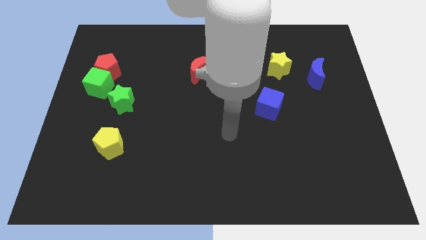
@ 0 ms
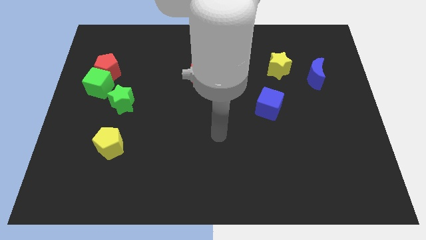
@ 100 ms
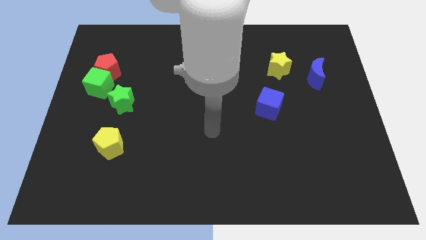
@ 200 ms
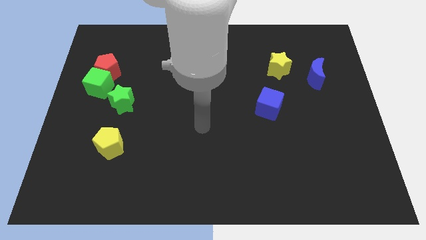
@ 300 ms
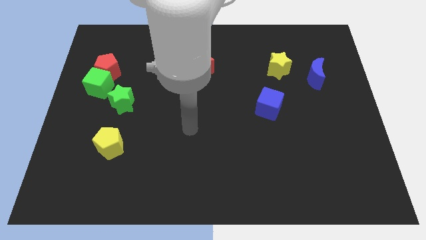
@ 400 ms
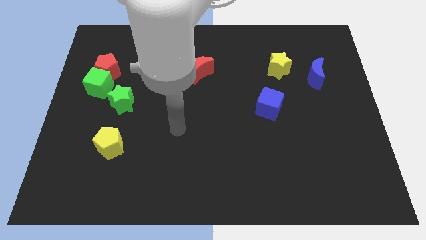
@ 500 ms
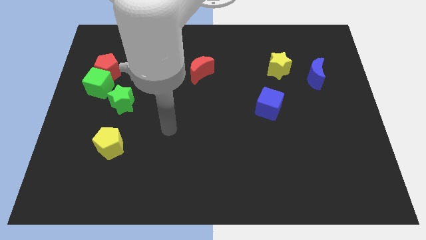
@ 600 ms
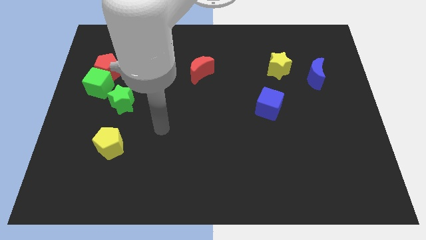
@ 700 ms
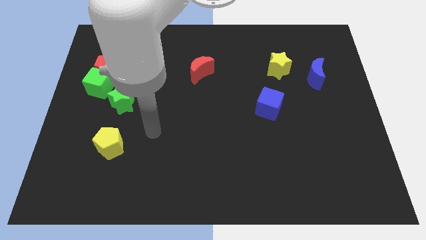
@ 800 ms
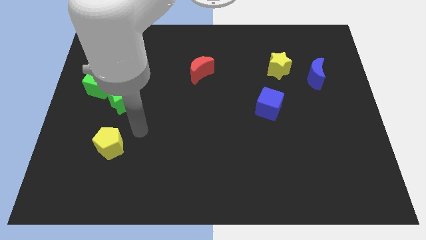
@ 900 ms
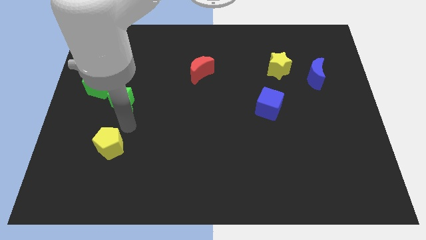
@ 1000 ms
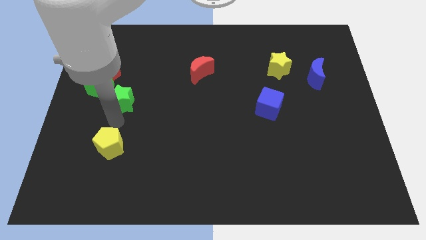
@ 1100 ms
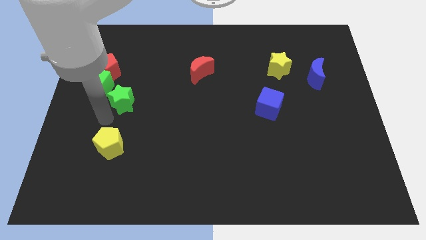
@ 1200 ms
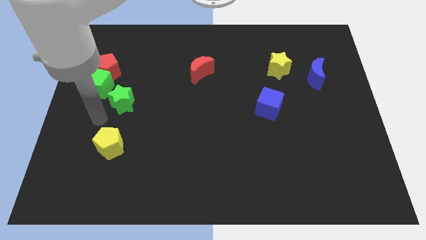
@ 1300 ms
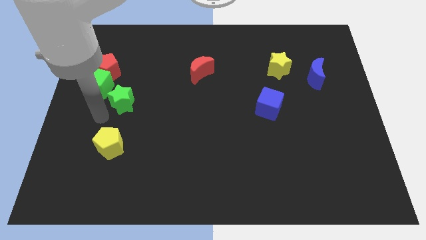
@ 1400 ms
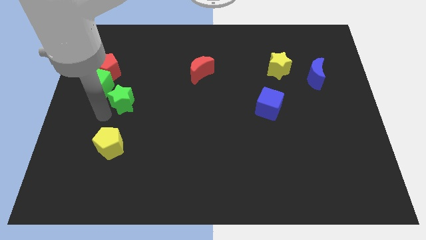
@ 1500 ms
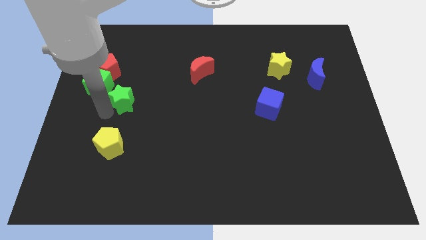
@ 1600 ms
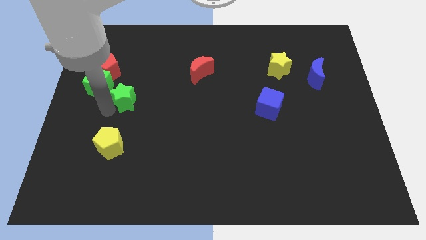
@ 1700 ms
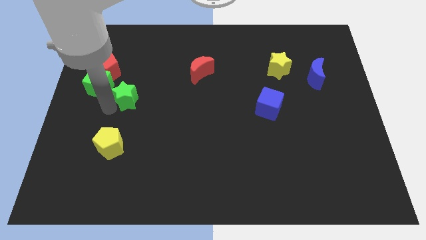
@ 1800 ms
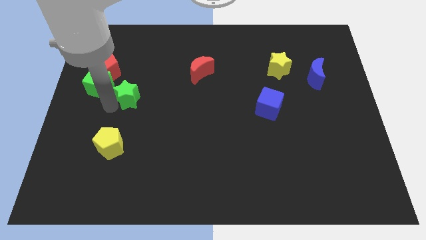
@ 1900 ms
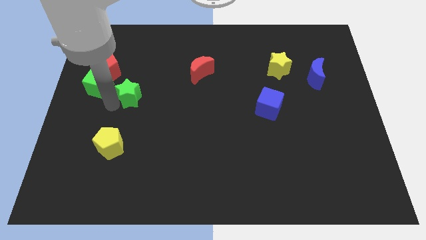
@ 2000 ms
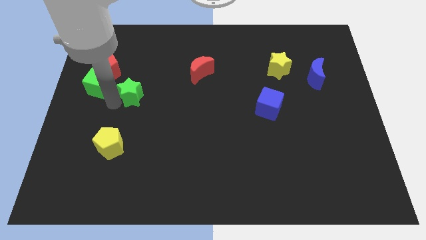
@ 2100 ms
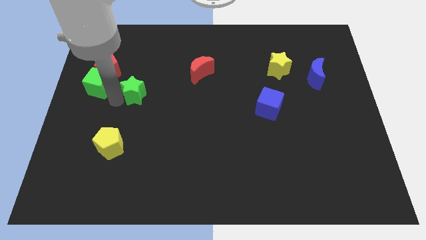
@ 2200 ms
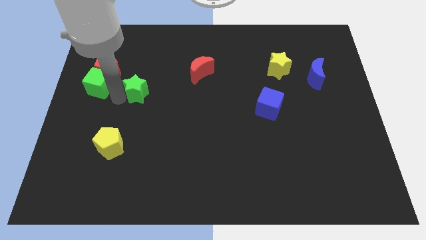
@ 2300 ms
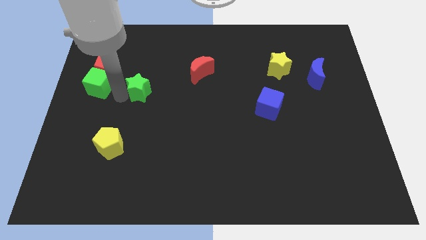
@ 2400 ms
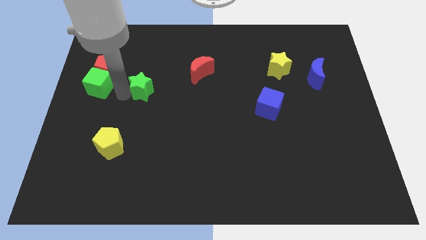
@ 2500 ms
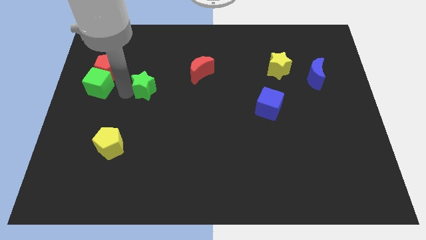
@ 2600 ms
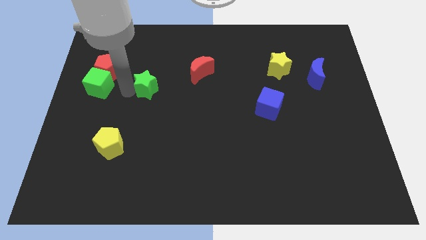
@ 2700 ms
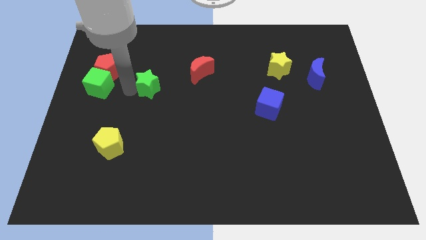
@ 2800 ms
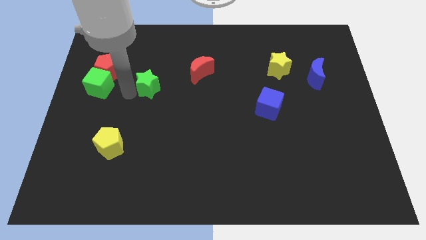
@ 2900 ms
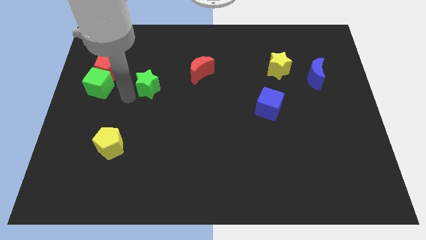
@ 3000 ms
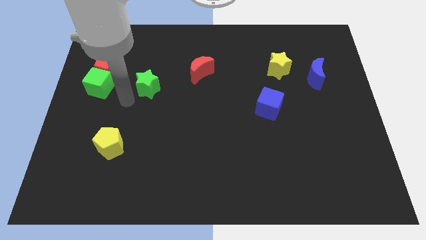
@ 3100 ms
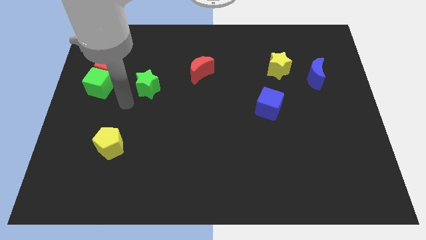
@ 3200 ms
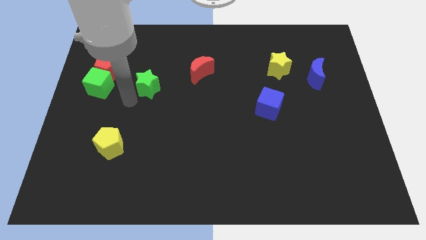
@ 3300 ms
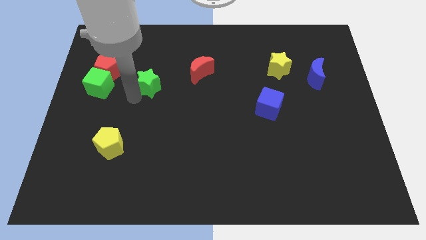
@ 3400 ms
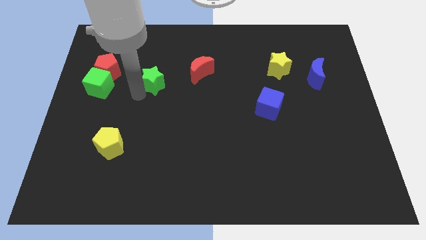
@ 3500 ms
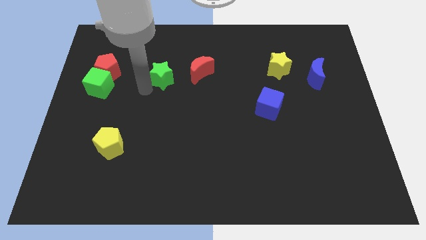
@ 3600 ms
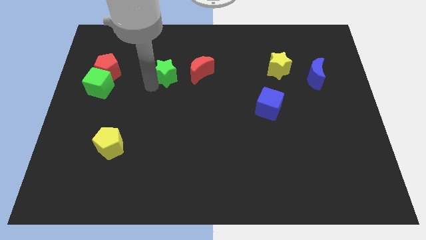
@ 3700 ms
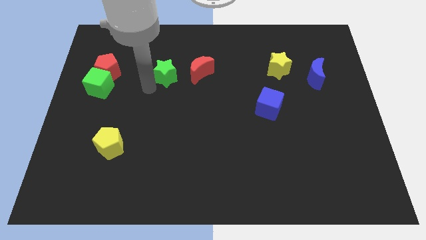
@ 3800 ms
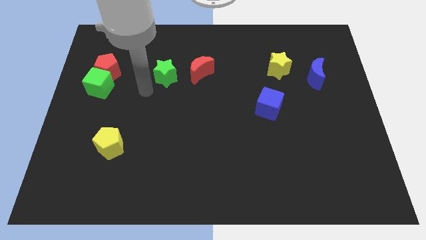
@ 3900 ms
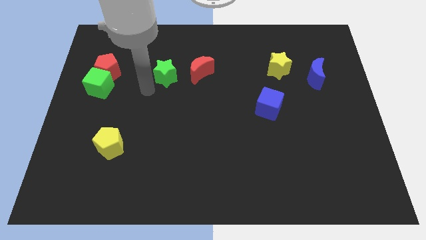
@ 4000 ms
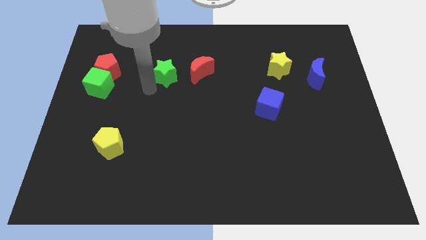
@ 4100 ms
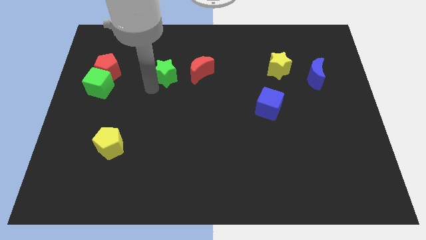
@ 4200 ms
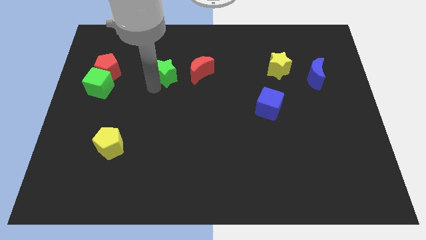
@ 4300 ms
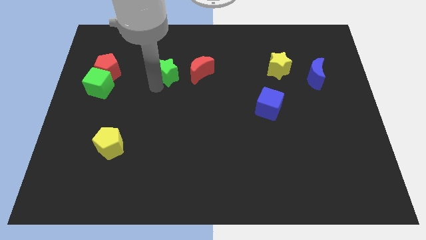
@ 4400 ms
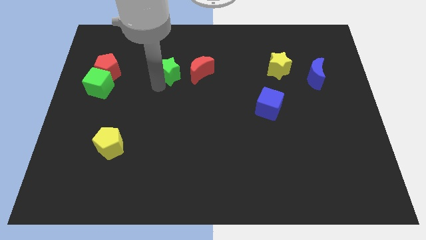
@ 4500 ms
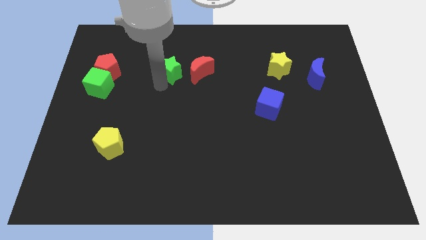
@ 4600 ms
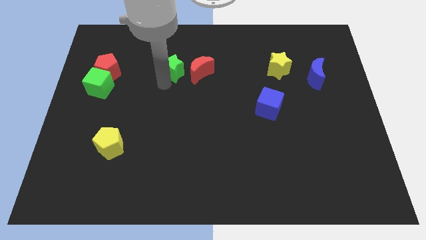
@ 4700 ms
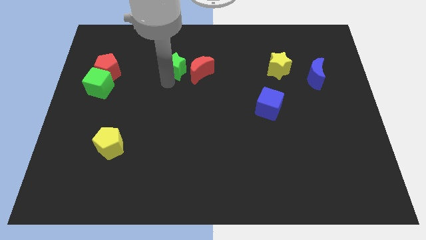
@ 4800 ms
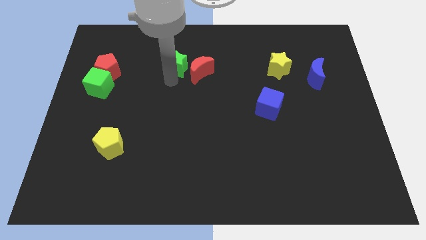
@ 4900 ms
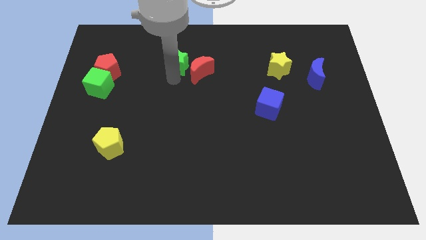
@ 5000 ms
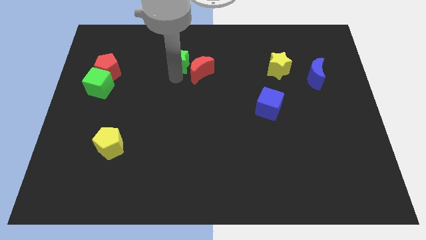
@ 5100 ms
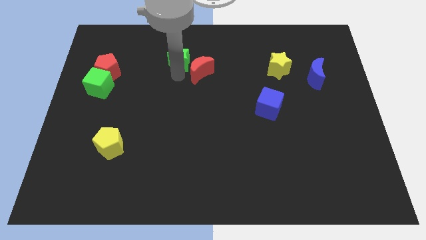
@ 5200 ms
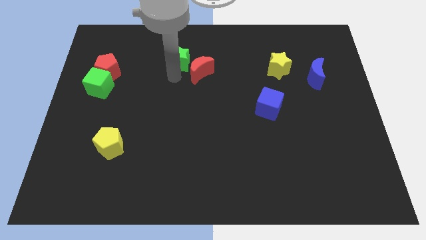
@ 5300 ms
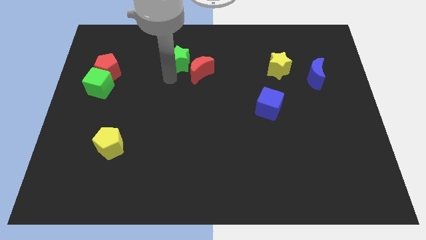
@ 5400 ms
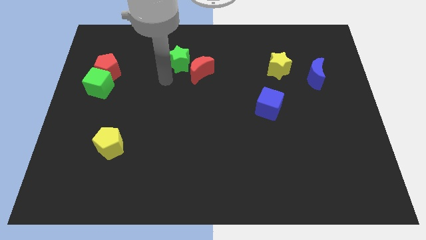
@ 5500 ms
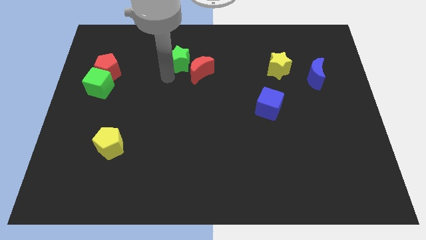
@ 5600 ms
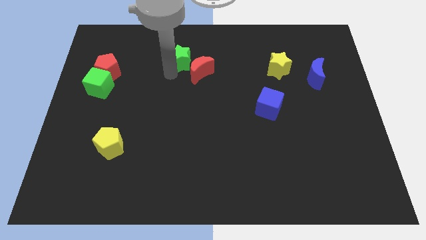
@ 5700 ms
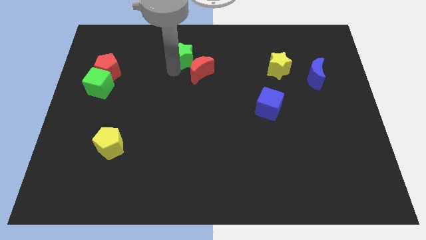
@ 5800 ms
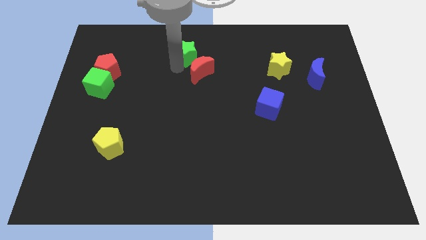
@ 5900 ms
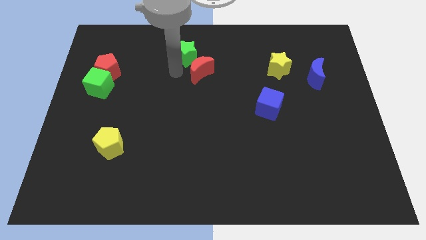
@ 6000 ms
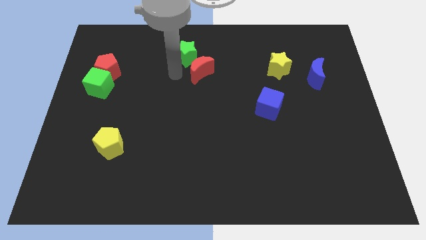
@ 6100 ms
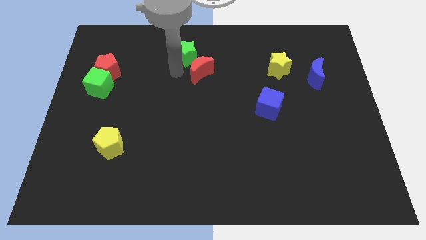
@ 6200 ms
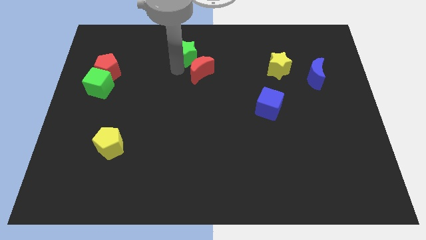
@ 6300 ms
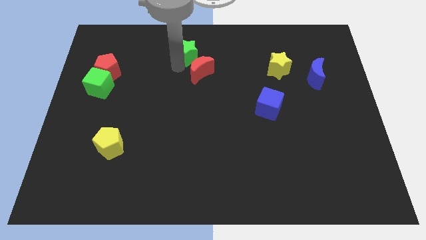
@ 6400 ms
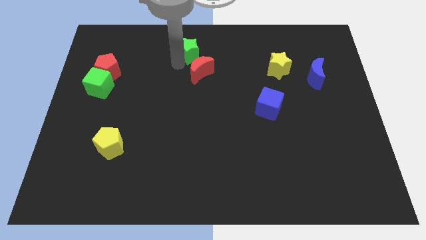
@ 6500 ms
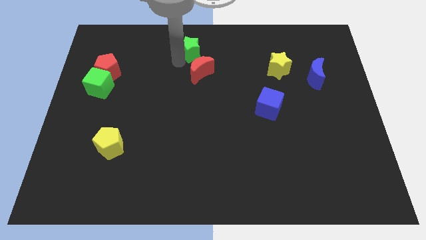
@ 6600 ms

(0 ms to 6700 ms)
put the green star to the top side
